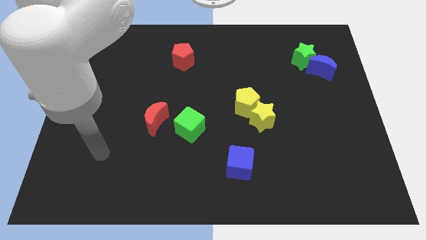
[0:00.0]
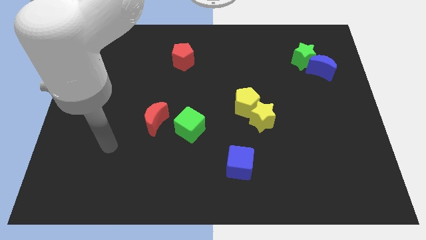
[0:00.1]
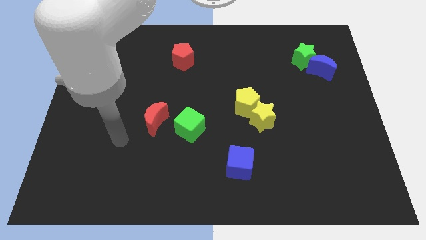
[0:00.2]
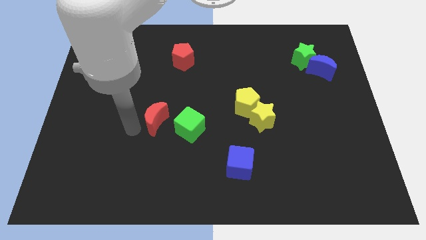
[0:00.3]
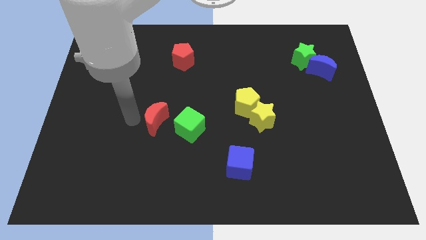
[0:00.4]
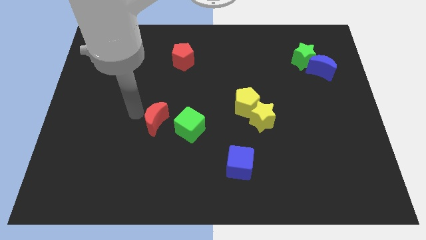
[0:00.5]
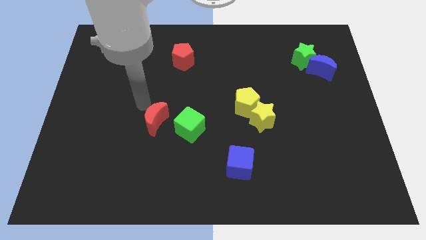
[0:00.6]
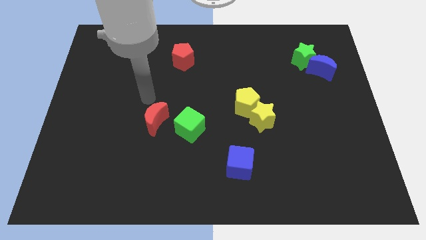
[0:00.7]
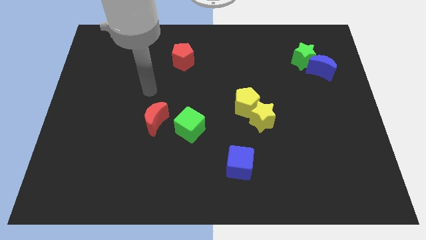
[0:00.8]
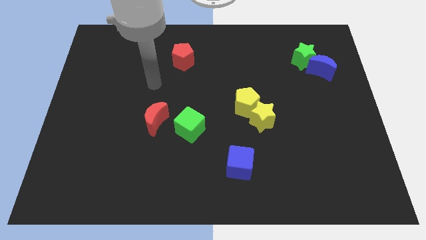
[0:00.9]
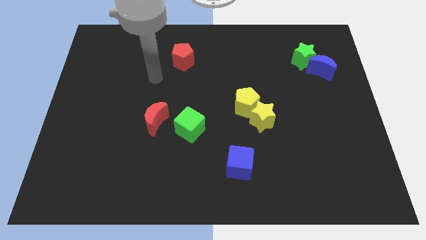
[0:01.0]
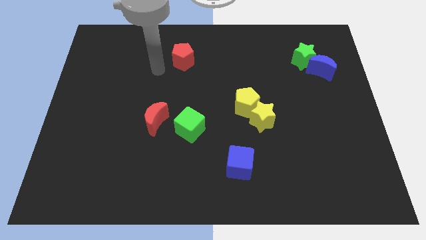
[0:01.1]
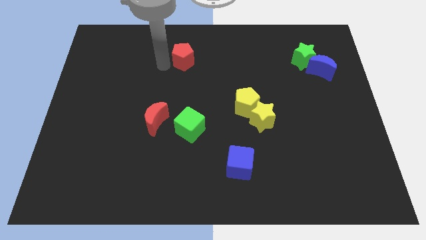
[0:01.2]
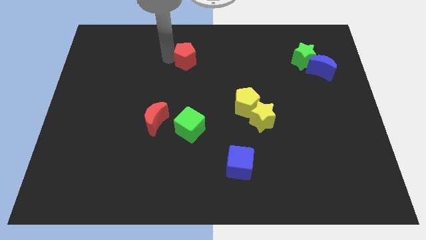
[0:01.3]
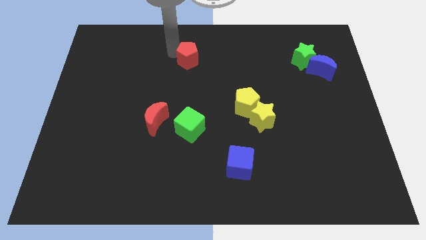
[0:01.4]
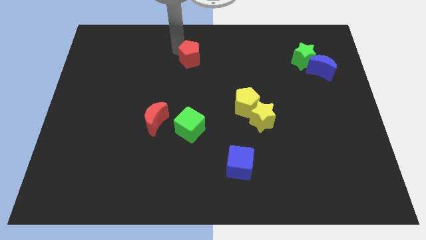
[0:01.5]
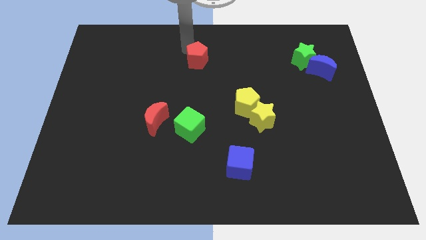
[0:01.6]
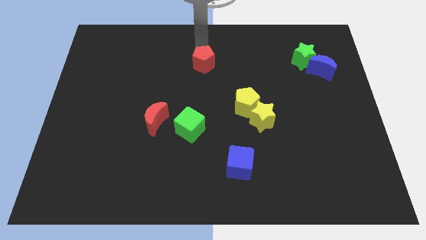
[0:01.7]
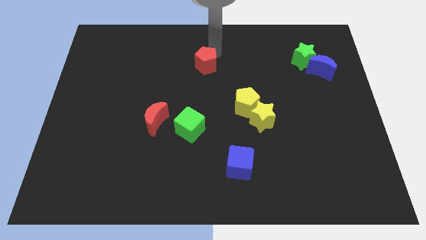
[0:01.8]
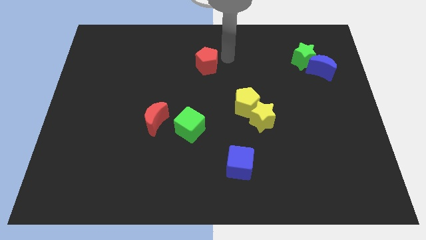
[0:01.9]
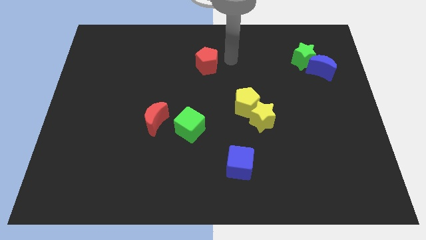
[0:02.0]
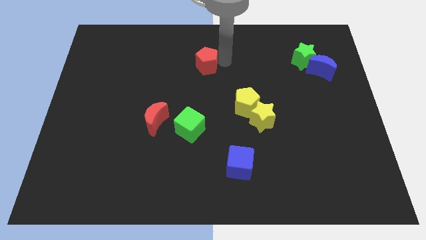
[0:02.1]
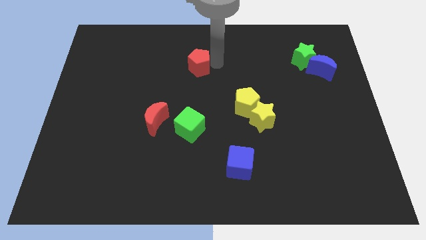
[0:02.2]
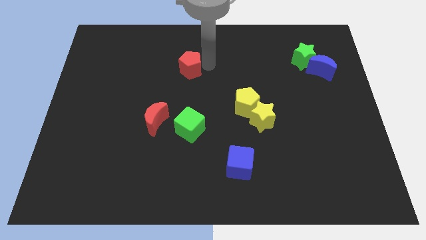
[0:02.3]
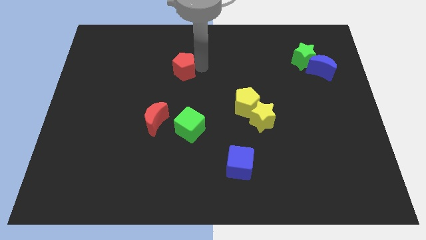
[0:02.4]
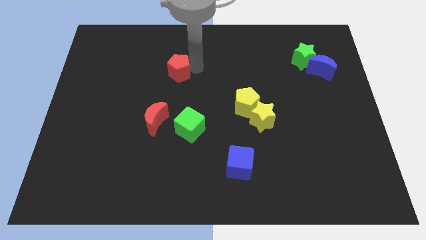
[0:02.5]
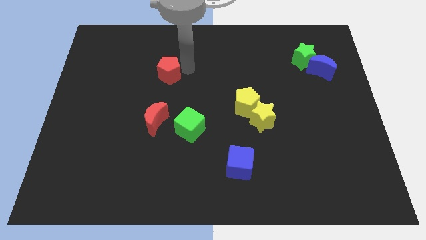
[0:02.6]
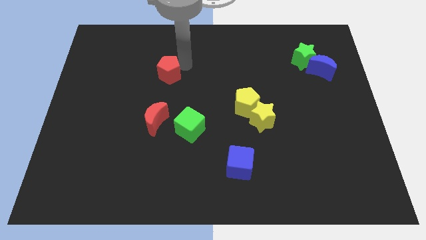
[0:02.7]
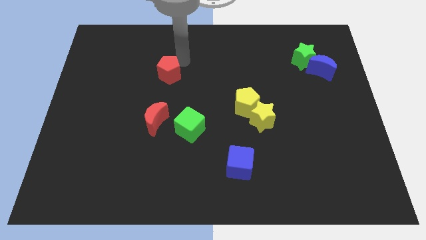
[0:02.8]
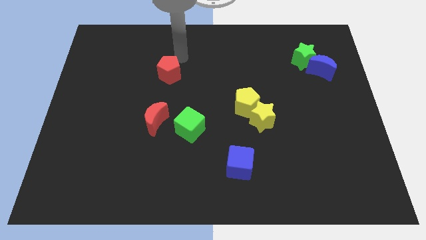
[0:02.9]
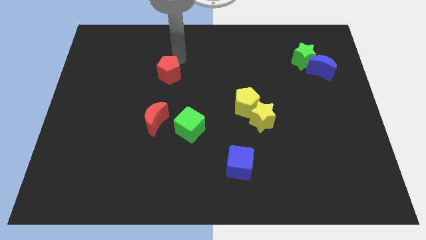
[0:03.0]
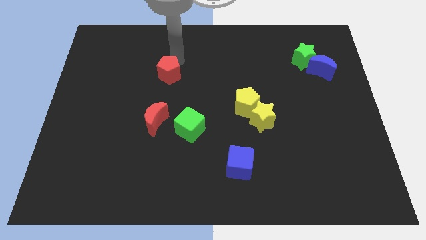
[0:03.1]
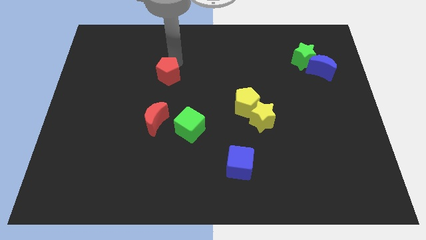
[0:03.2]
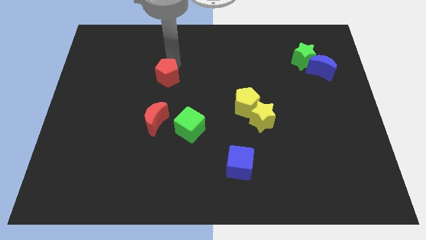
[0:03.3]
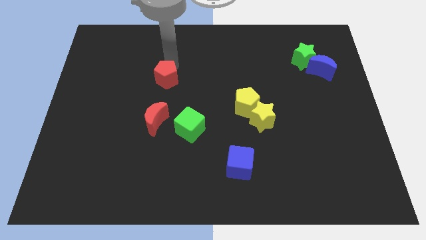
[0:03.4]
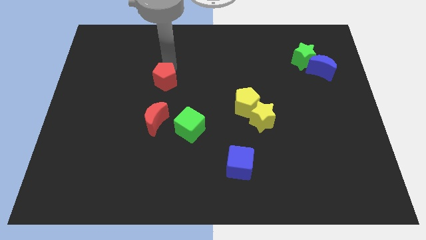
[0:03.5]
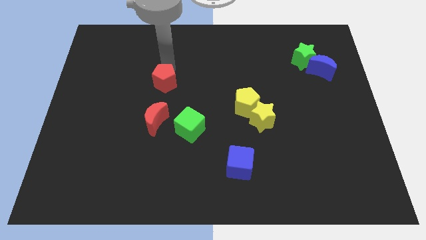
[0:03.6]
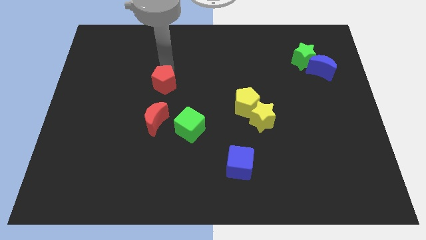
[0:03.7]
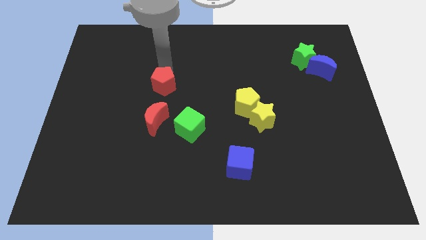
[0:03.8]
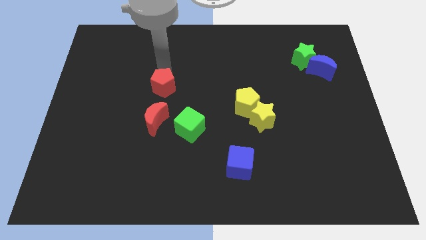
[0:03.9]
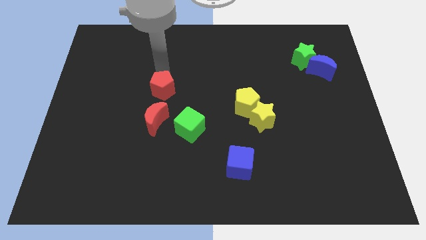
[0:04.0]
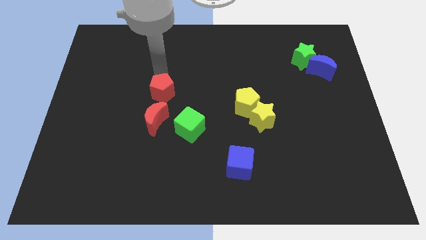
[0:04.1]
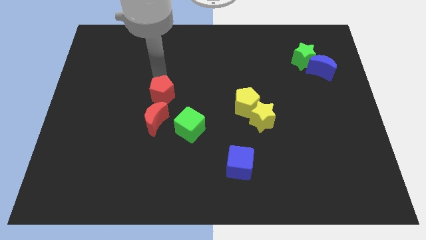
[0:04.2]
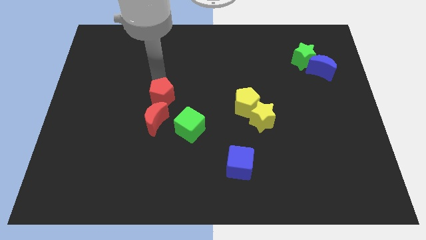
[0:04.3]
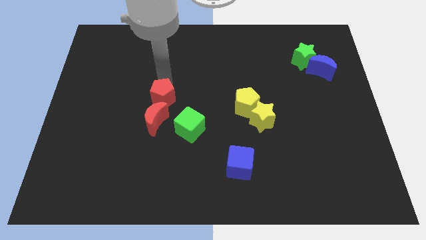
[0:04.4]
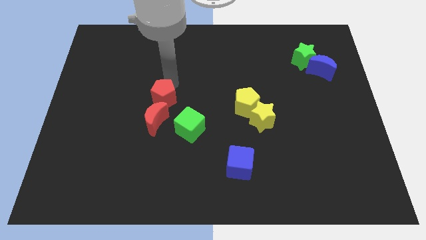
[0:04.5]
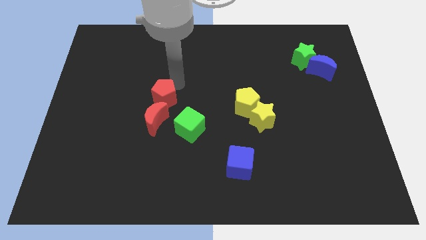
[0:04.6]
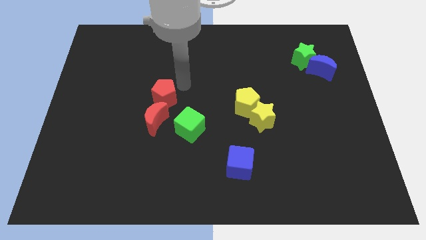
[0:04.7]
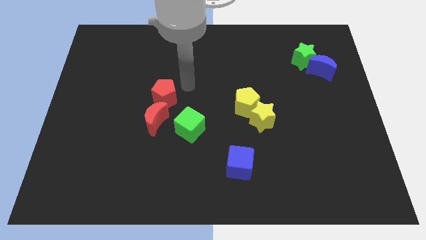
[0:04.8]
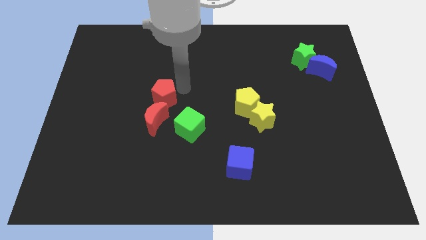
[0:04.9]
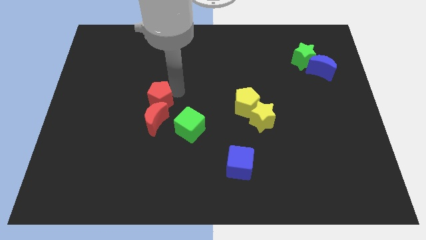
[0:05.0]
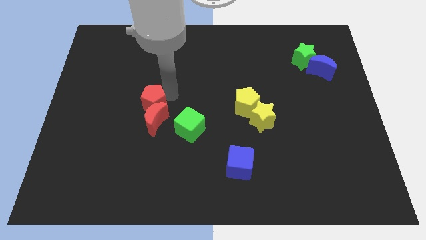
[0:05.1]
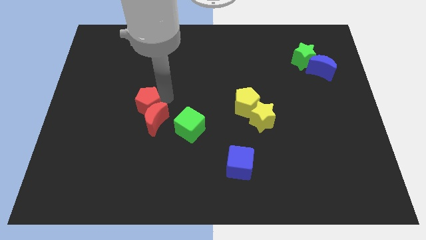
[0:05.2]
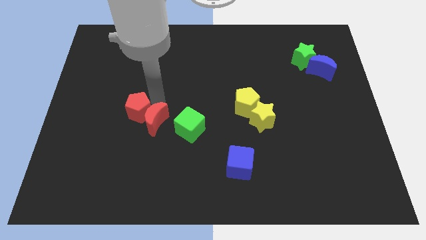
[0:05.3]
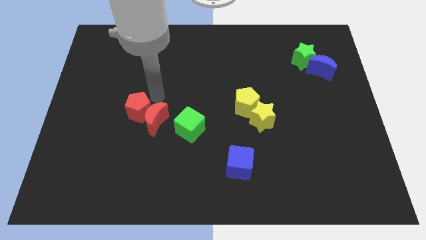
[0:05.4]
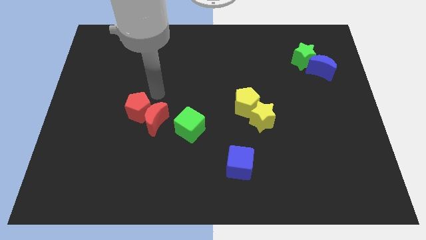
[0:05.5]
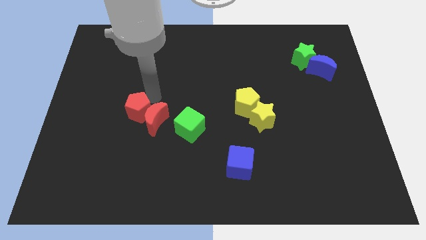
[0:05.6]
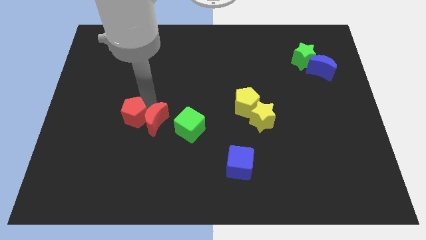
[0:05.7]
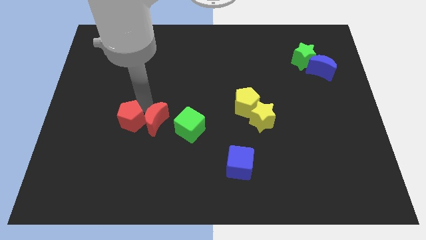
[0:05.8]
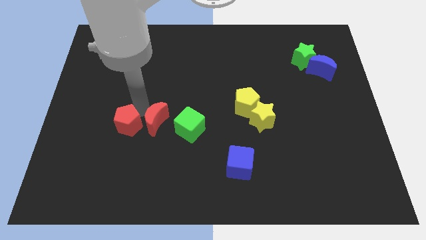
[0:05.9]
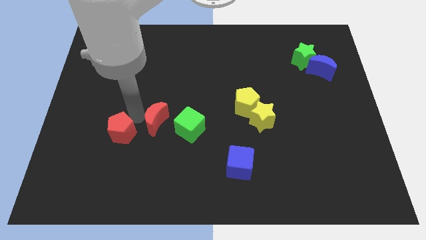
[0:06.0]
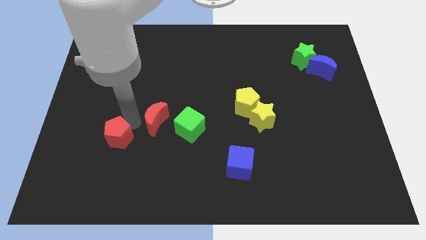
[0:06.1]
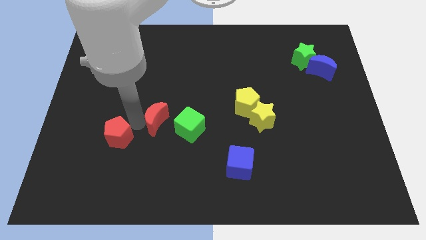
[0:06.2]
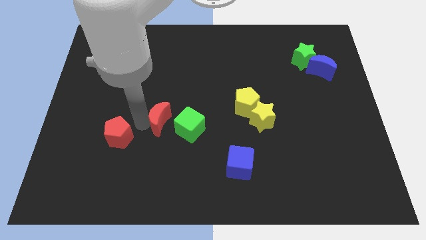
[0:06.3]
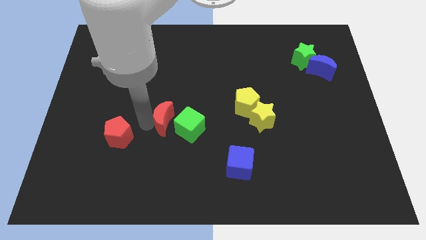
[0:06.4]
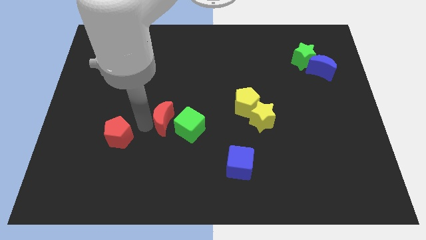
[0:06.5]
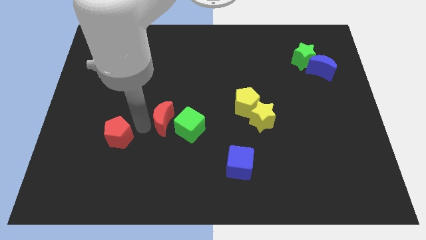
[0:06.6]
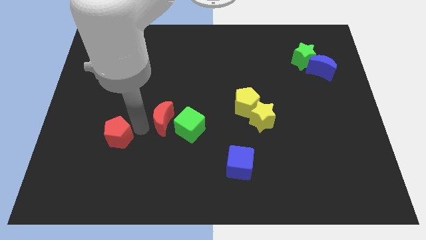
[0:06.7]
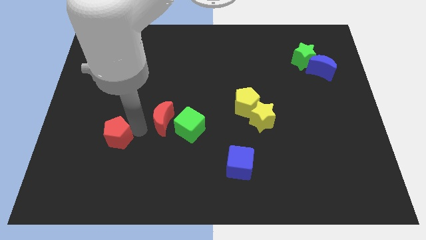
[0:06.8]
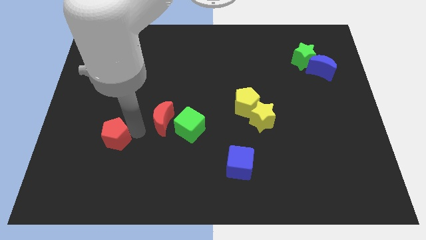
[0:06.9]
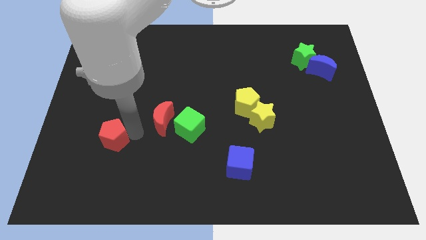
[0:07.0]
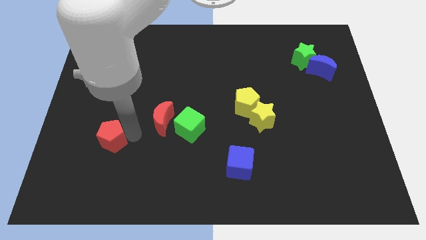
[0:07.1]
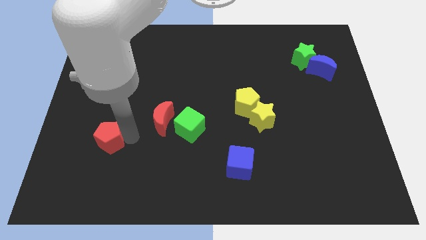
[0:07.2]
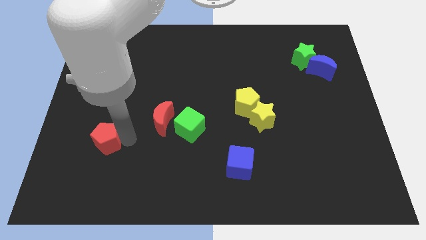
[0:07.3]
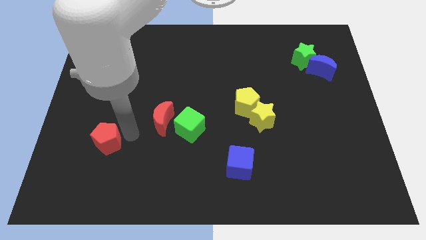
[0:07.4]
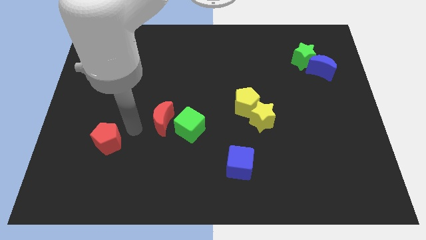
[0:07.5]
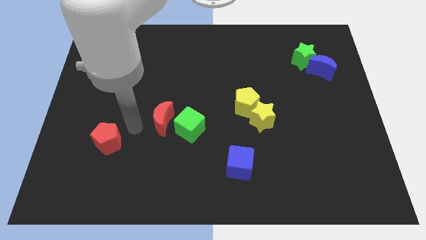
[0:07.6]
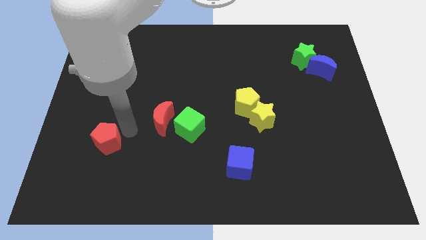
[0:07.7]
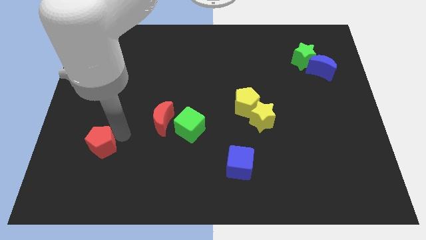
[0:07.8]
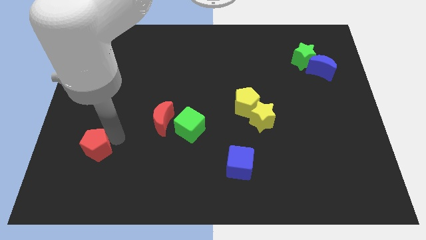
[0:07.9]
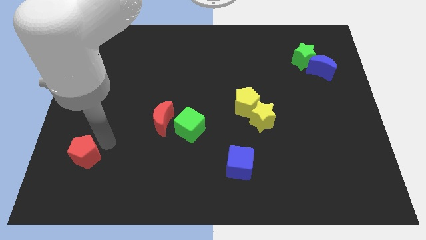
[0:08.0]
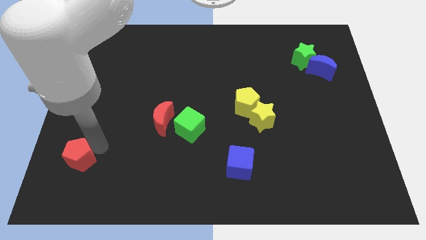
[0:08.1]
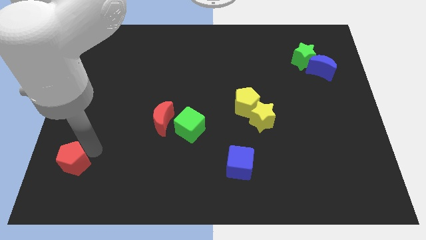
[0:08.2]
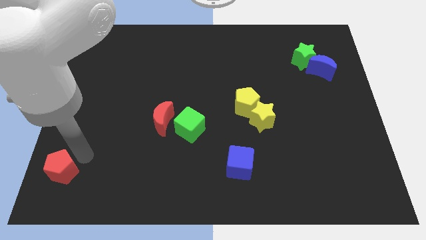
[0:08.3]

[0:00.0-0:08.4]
push the red pentagon to the bottom left
